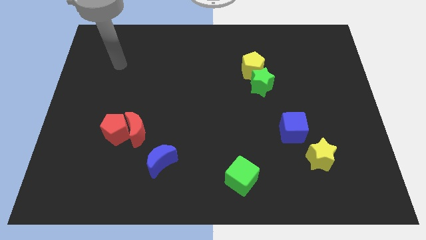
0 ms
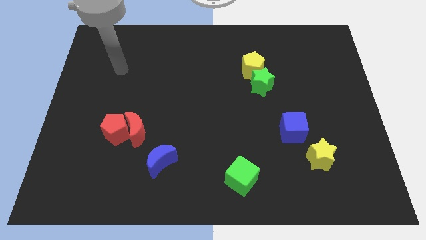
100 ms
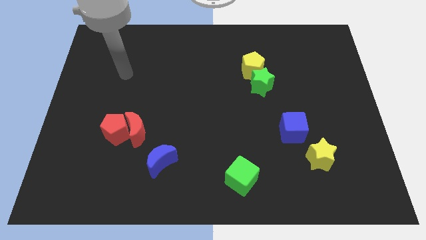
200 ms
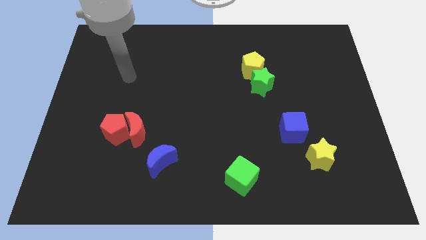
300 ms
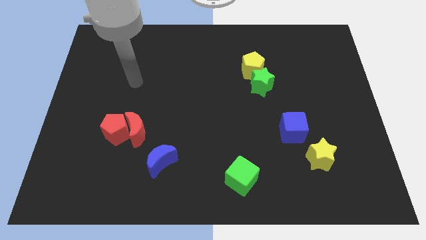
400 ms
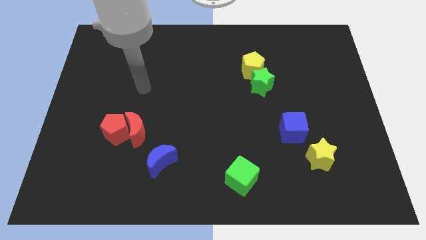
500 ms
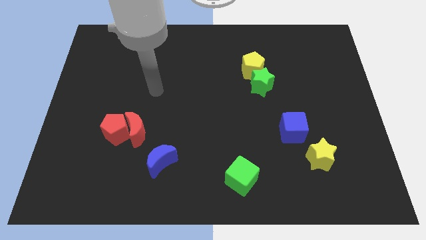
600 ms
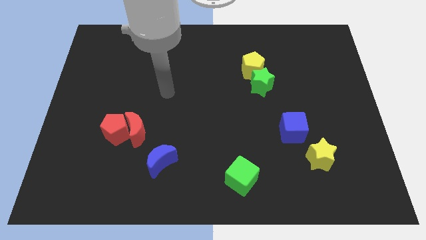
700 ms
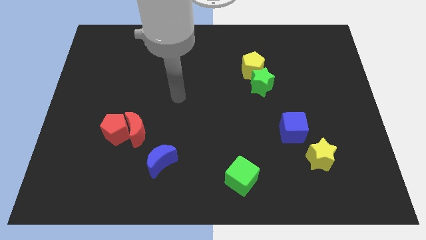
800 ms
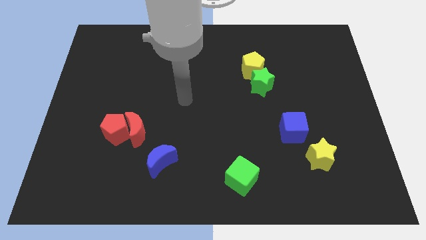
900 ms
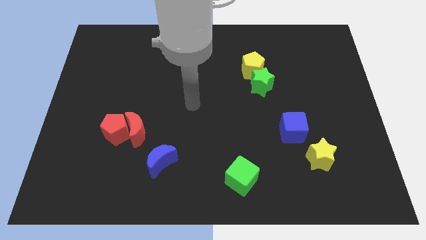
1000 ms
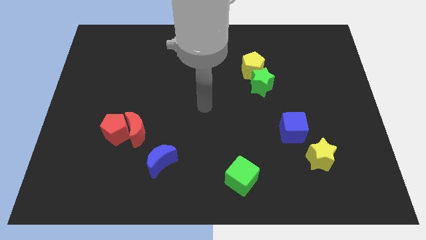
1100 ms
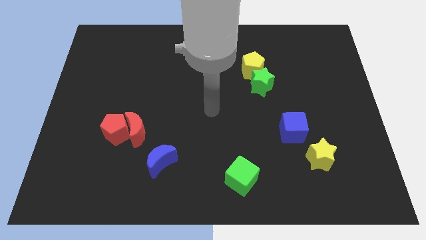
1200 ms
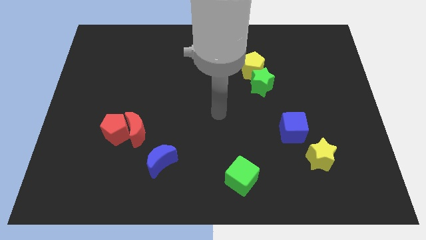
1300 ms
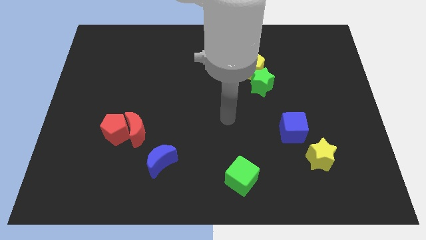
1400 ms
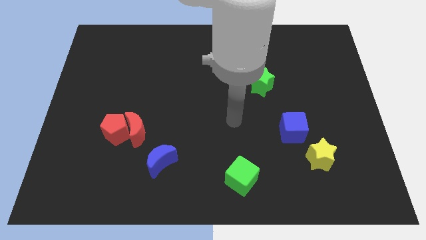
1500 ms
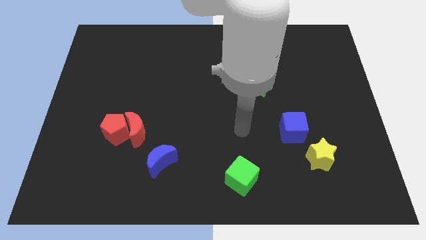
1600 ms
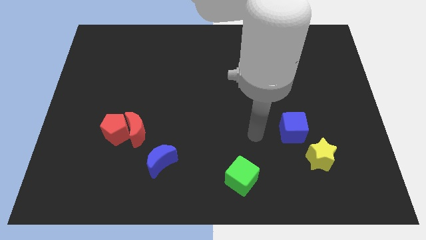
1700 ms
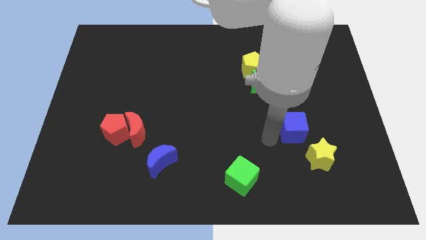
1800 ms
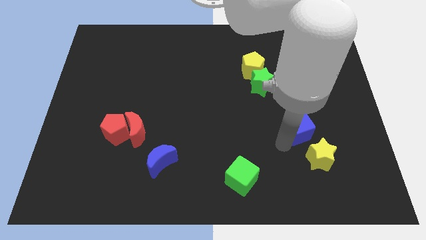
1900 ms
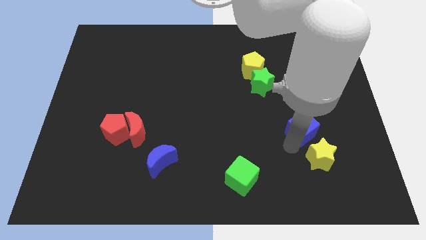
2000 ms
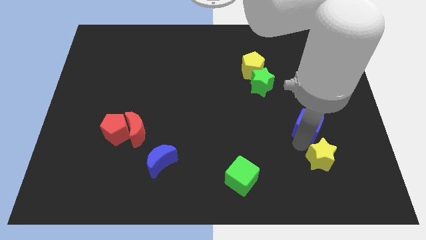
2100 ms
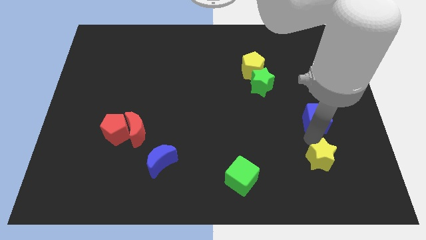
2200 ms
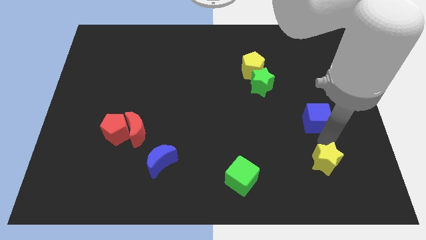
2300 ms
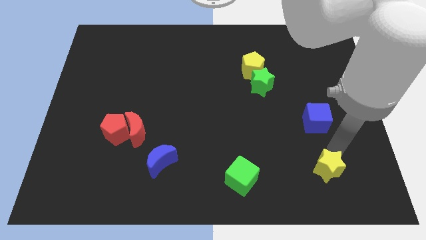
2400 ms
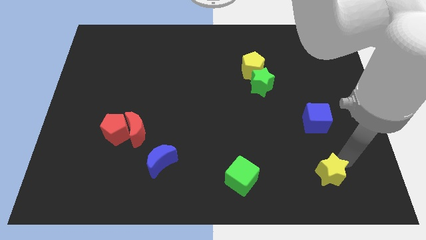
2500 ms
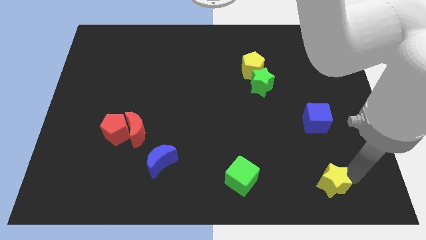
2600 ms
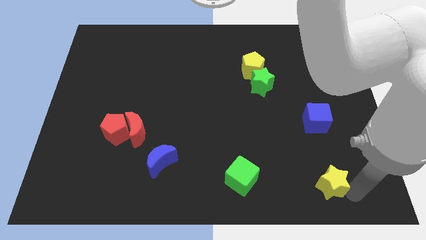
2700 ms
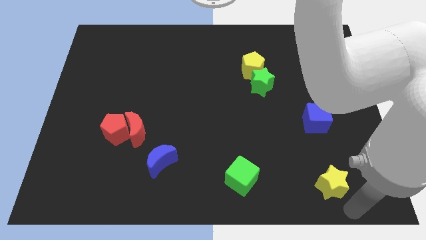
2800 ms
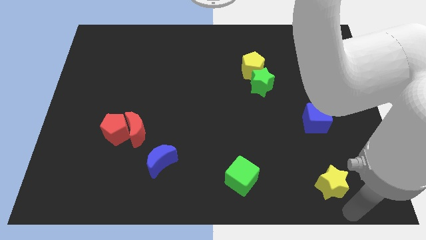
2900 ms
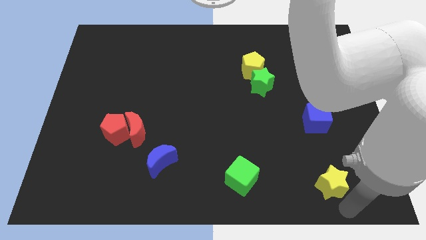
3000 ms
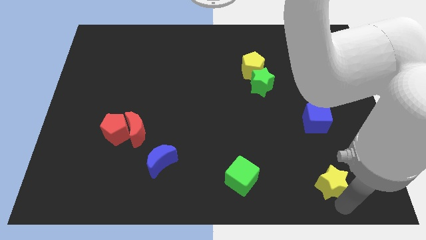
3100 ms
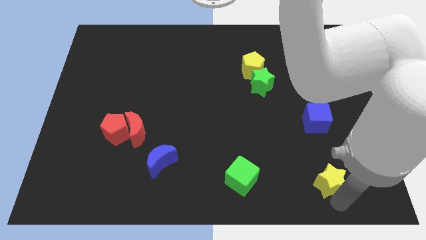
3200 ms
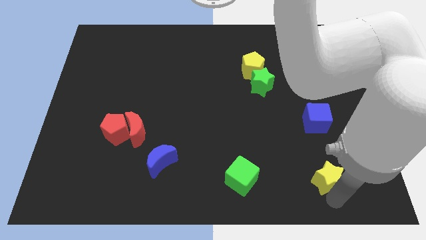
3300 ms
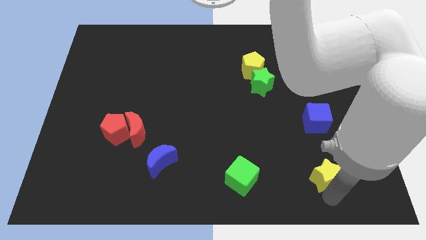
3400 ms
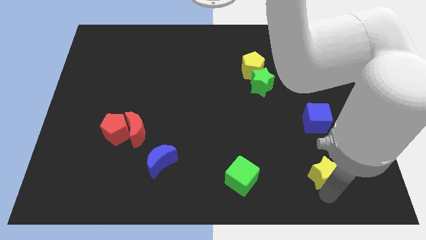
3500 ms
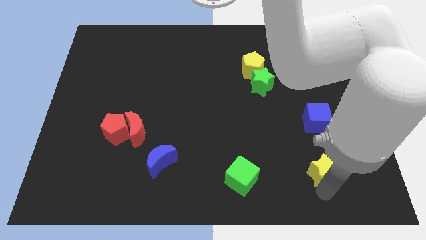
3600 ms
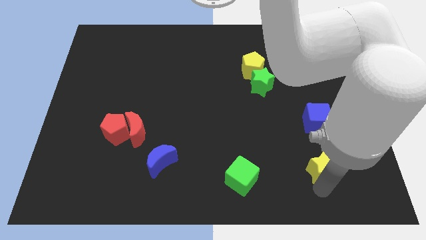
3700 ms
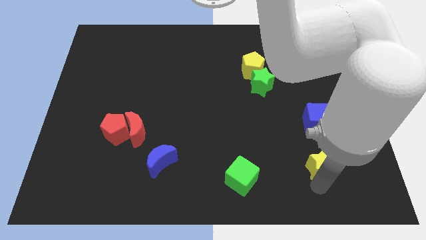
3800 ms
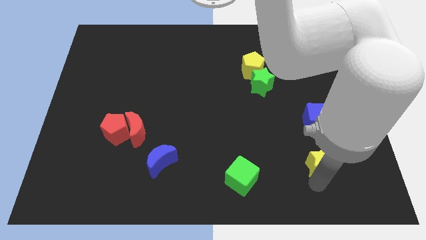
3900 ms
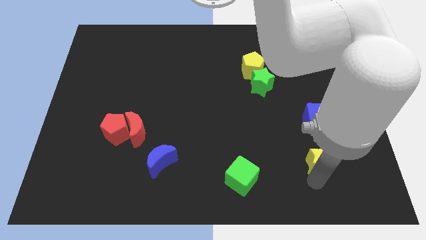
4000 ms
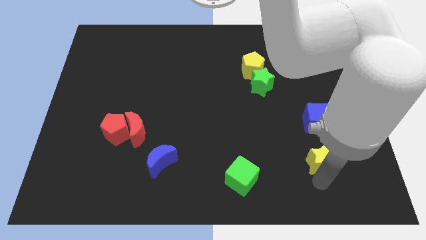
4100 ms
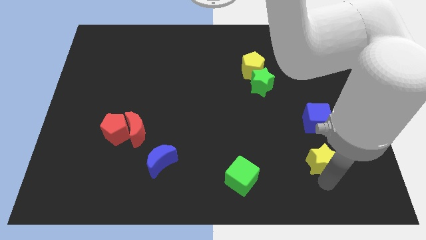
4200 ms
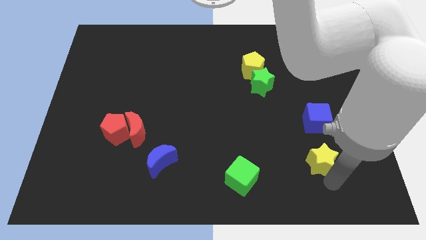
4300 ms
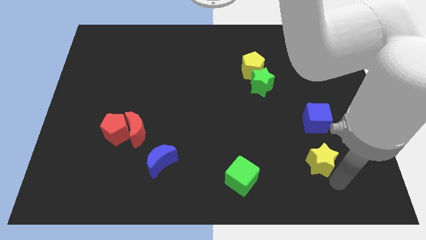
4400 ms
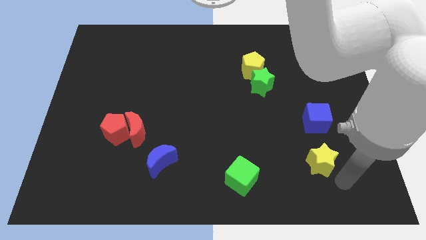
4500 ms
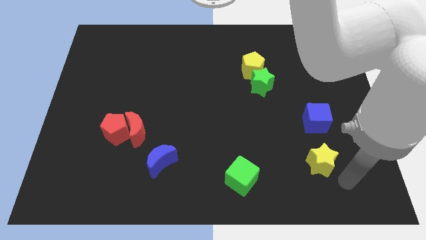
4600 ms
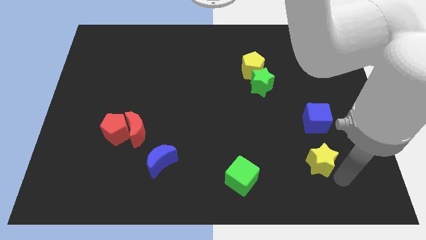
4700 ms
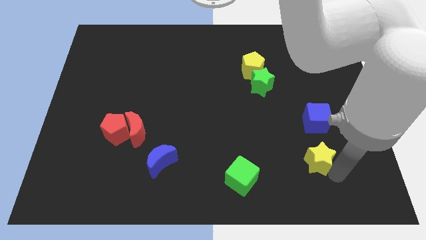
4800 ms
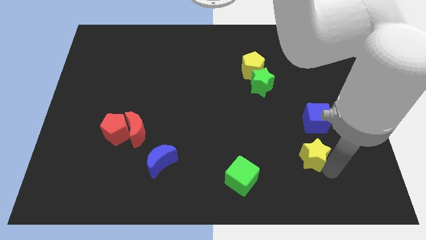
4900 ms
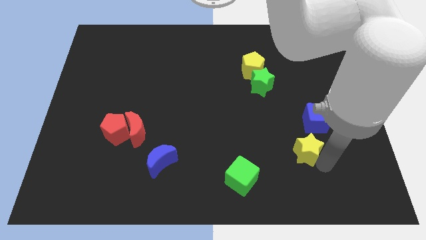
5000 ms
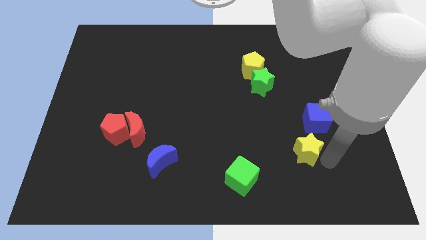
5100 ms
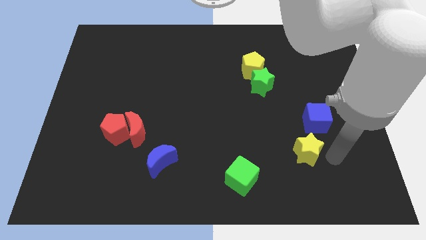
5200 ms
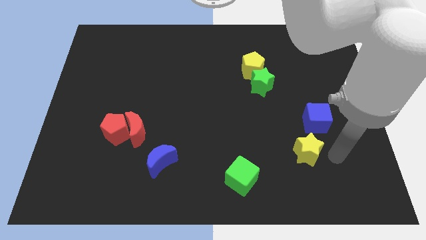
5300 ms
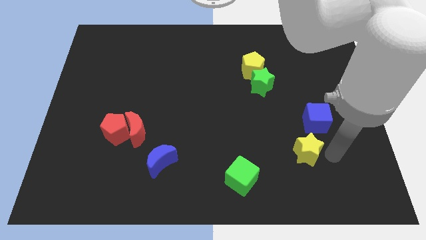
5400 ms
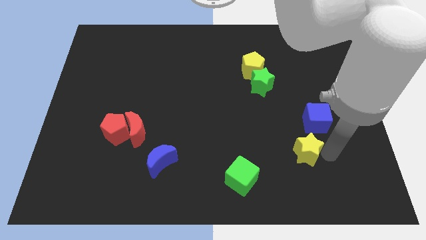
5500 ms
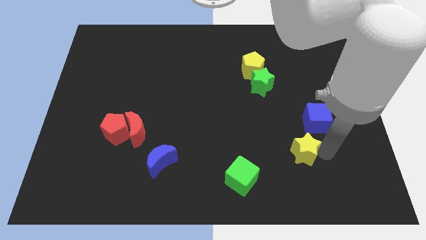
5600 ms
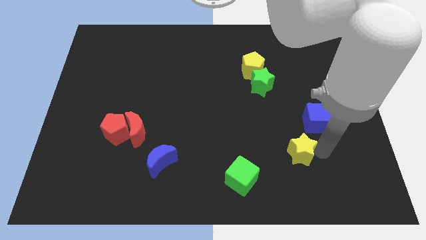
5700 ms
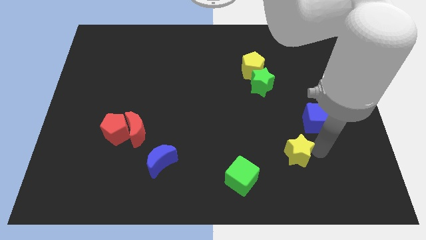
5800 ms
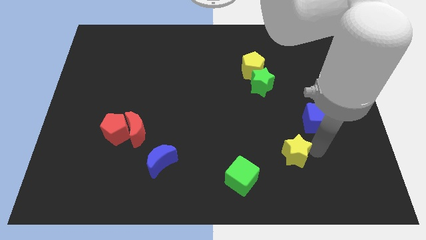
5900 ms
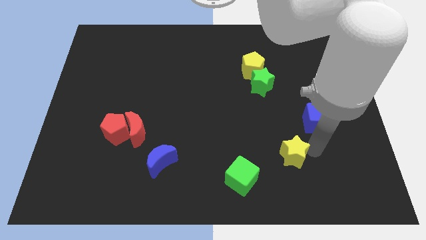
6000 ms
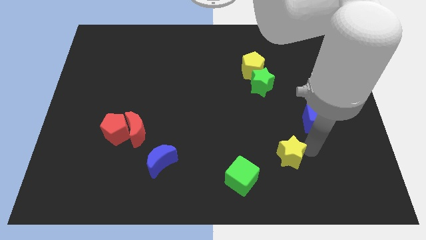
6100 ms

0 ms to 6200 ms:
push the yellow star left a little bit

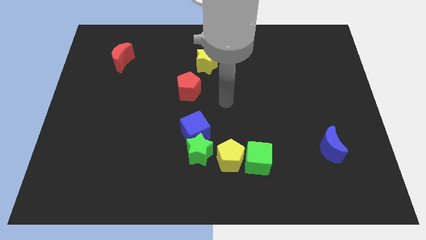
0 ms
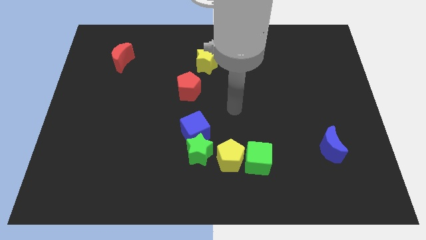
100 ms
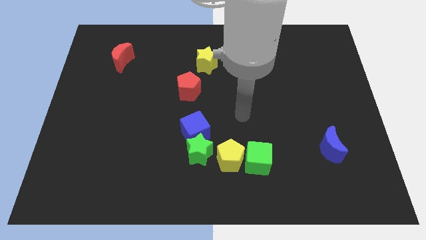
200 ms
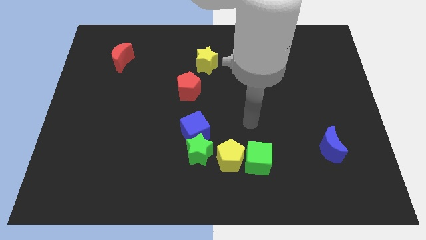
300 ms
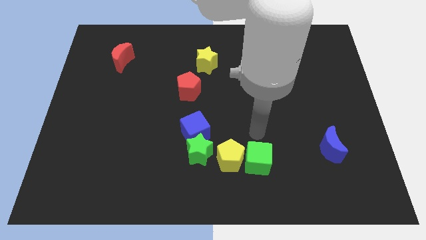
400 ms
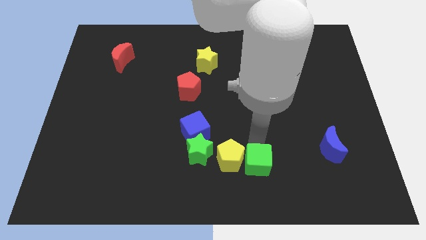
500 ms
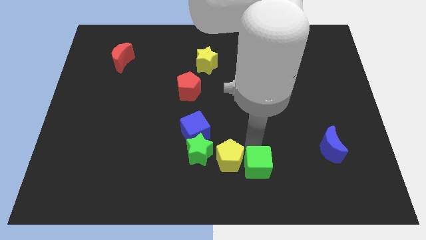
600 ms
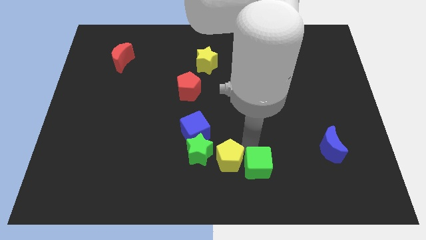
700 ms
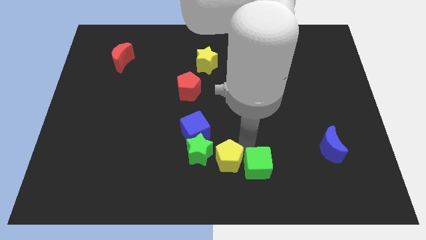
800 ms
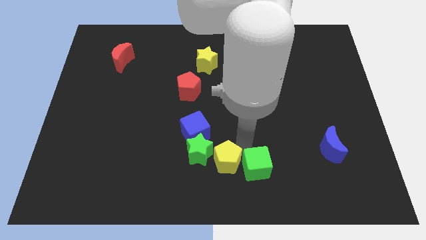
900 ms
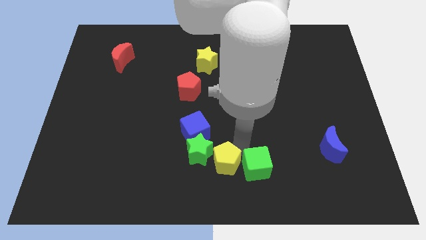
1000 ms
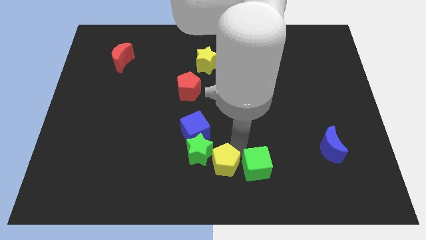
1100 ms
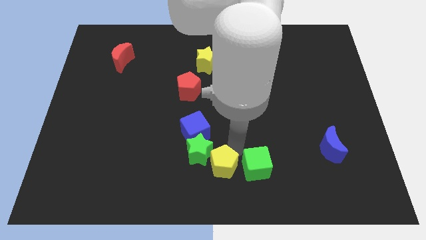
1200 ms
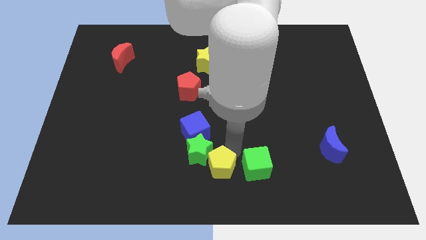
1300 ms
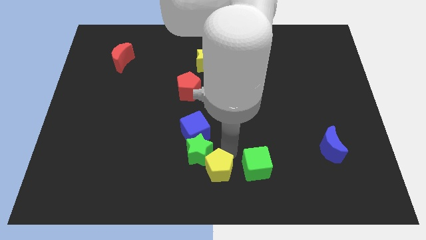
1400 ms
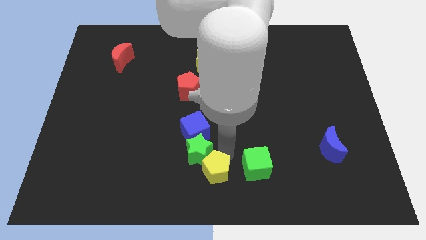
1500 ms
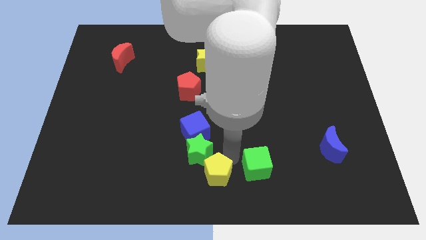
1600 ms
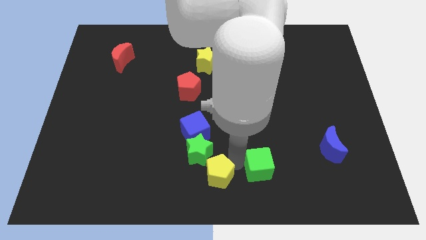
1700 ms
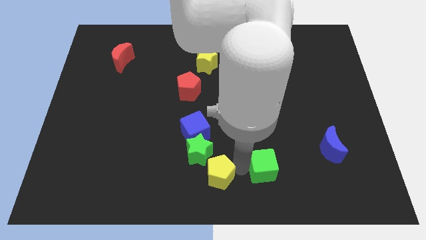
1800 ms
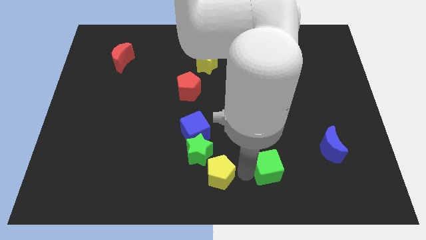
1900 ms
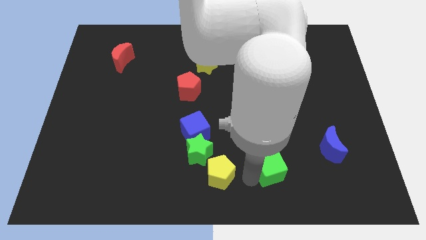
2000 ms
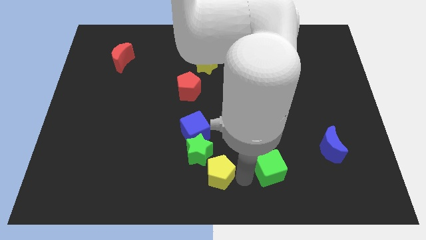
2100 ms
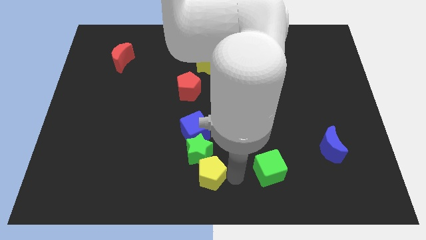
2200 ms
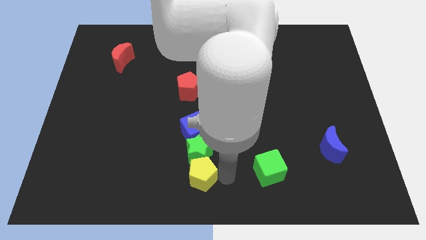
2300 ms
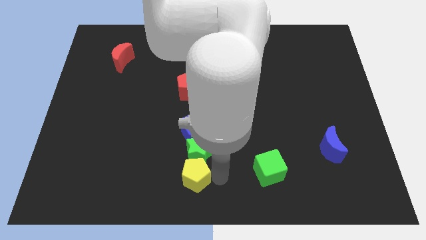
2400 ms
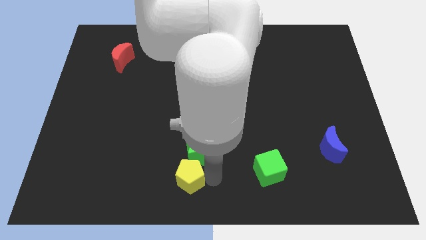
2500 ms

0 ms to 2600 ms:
push the yellow pentagon a bit left
